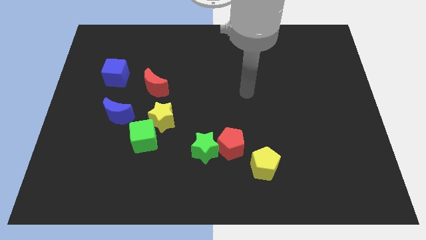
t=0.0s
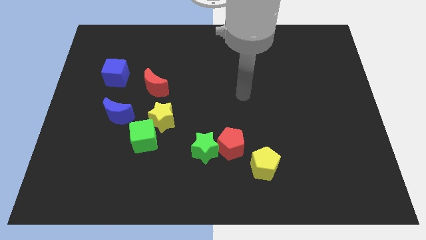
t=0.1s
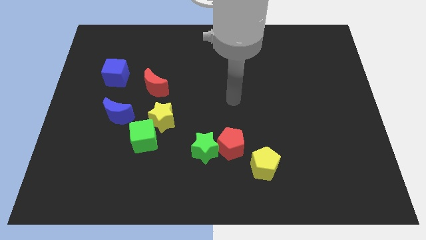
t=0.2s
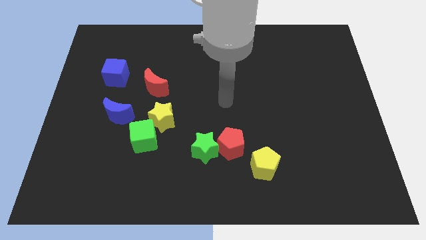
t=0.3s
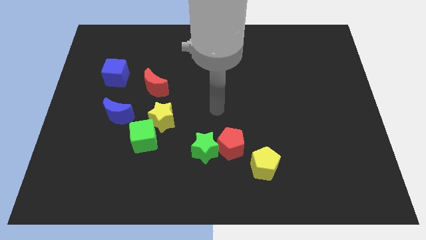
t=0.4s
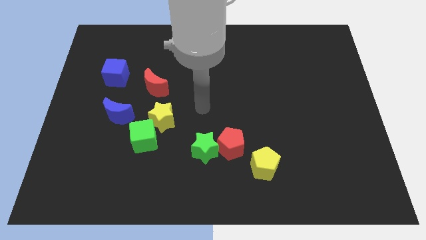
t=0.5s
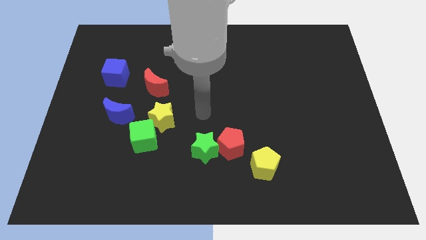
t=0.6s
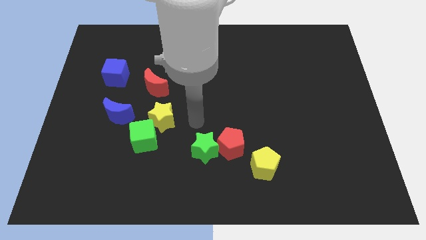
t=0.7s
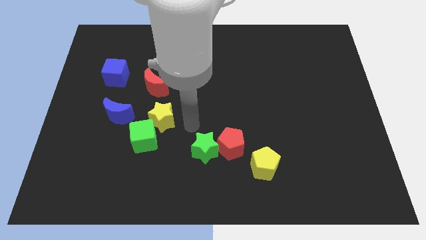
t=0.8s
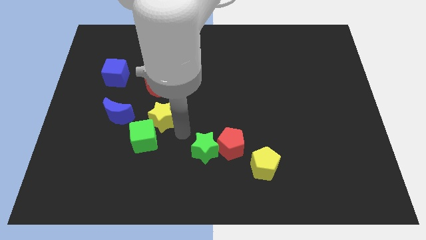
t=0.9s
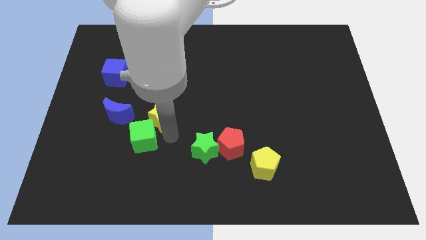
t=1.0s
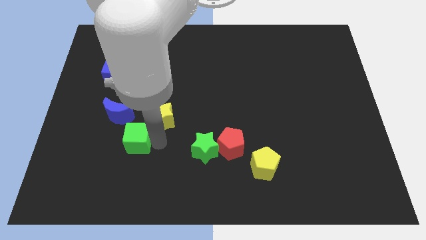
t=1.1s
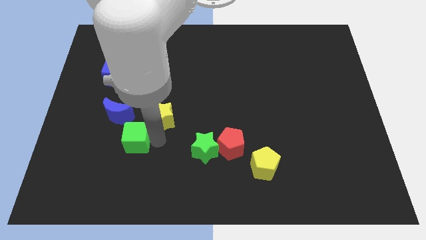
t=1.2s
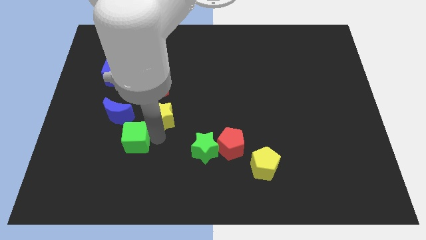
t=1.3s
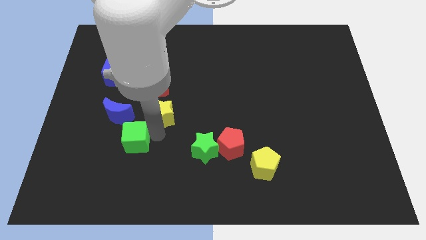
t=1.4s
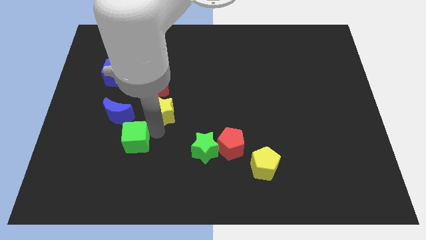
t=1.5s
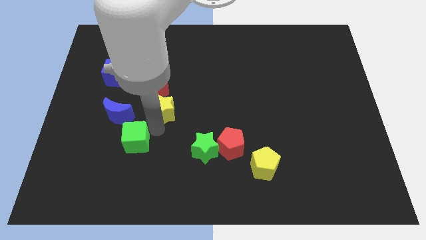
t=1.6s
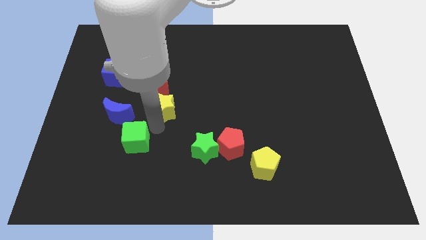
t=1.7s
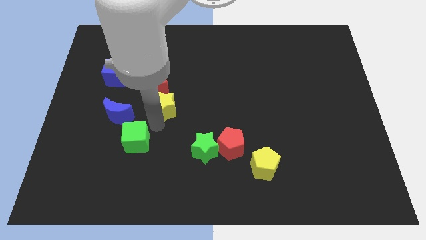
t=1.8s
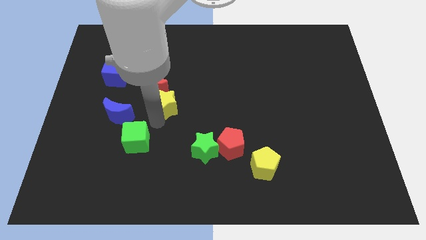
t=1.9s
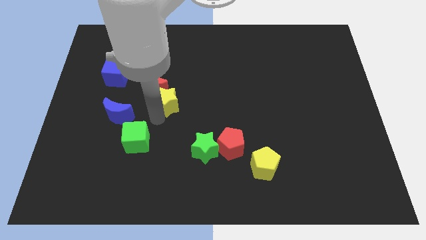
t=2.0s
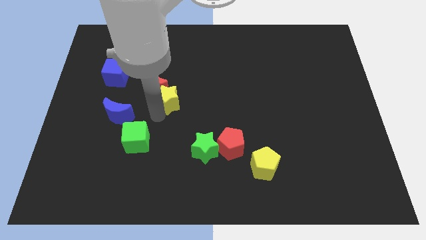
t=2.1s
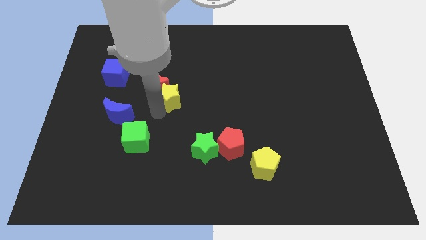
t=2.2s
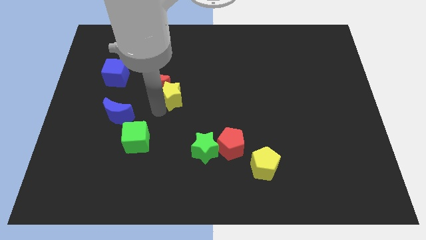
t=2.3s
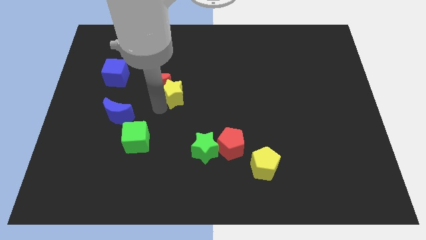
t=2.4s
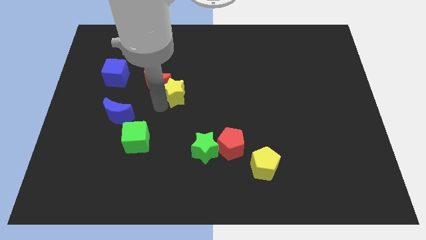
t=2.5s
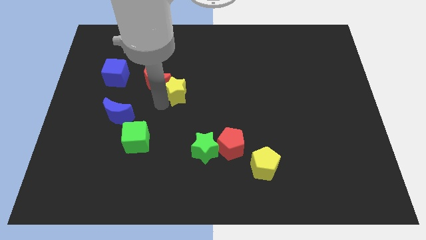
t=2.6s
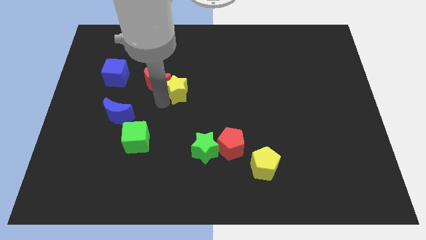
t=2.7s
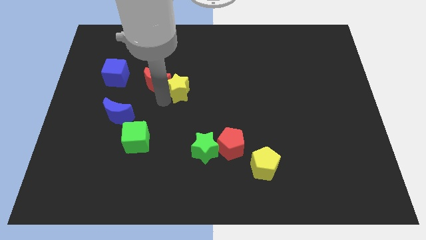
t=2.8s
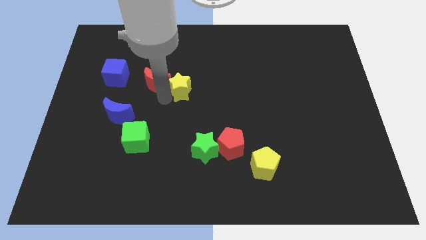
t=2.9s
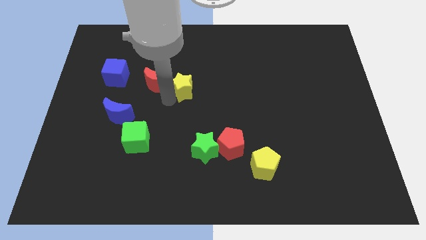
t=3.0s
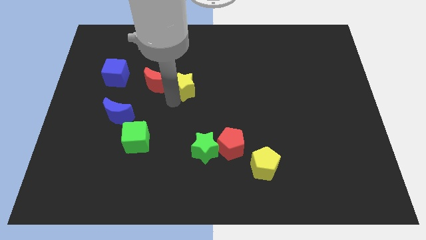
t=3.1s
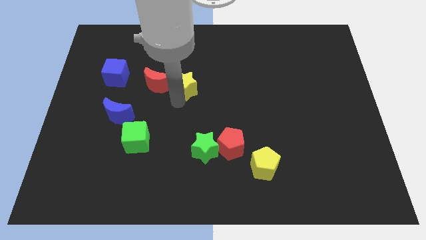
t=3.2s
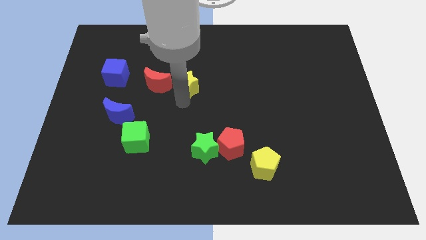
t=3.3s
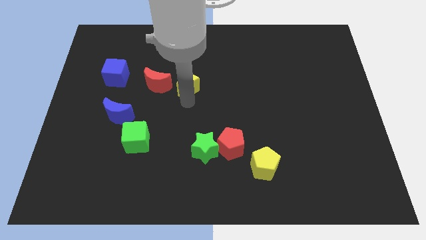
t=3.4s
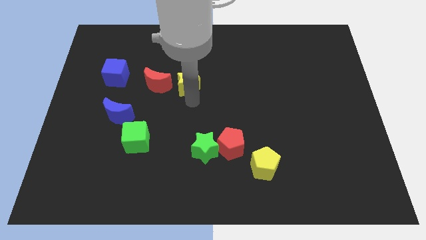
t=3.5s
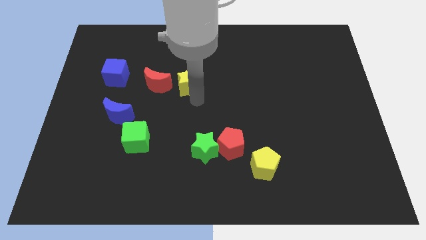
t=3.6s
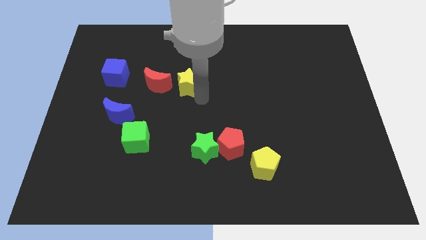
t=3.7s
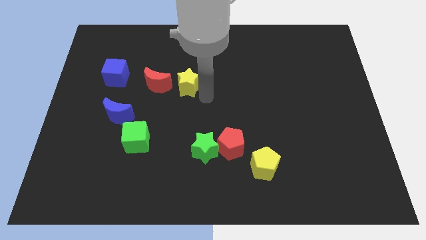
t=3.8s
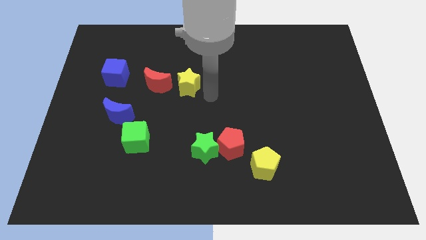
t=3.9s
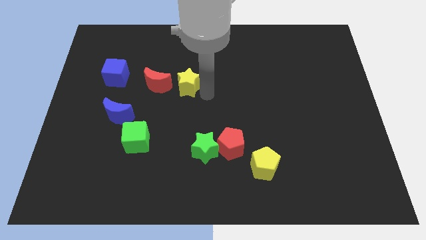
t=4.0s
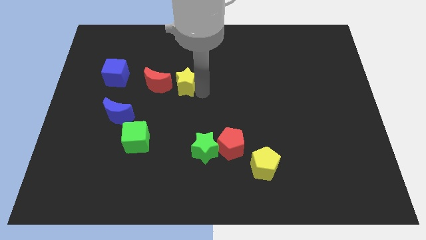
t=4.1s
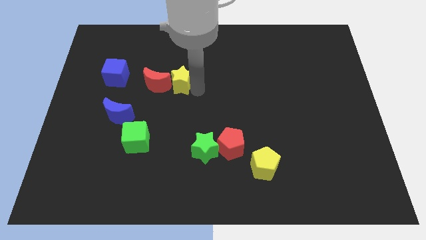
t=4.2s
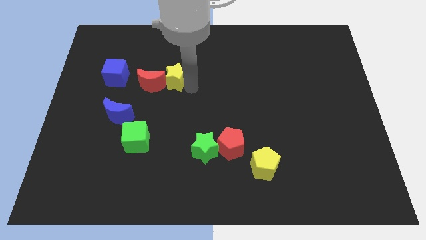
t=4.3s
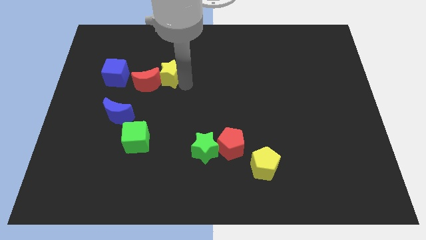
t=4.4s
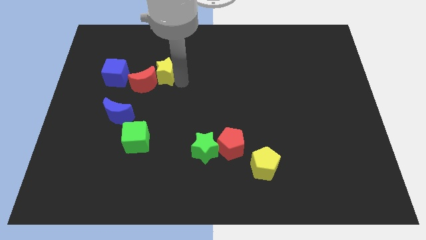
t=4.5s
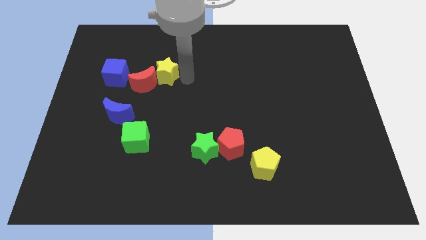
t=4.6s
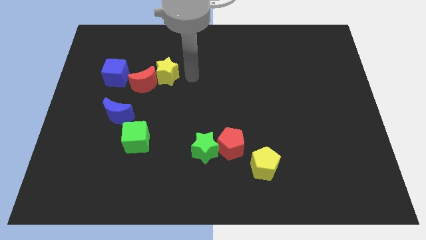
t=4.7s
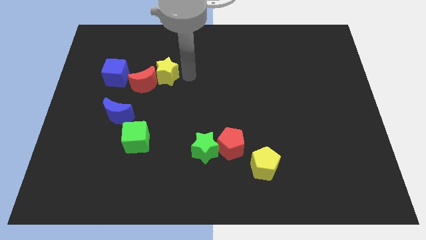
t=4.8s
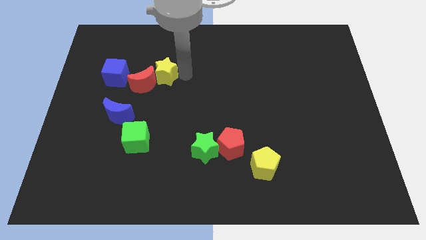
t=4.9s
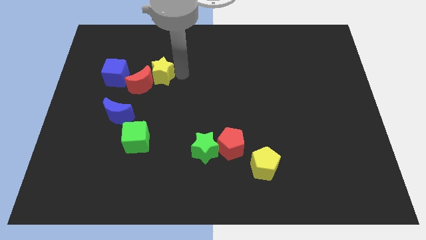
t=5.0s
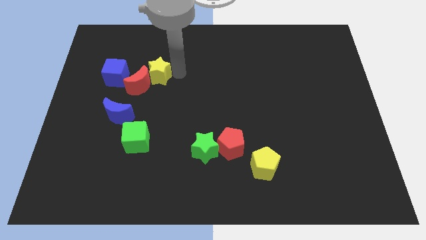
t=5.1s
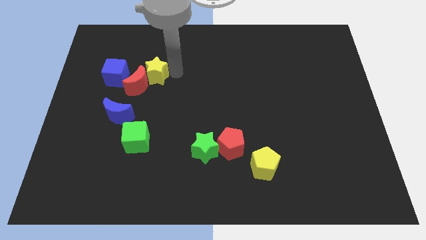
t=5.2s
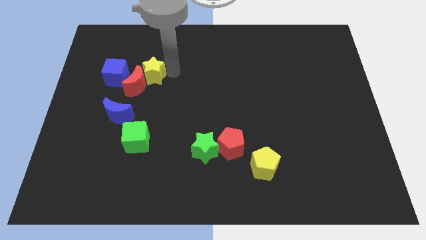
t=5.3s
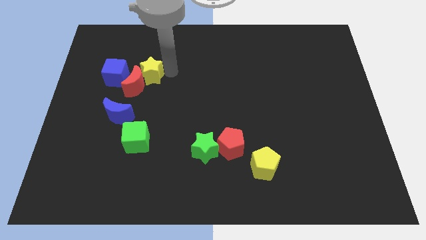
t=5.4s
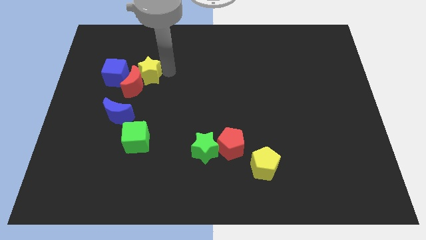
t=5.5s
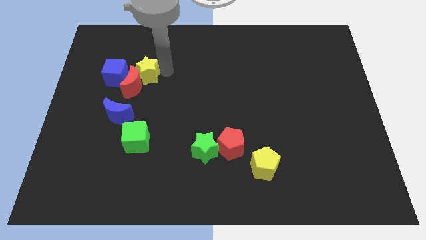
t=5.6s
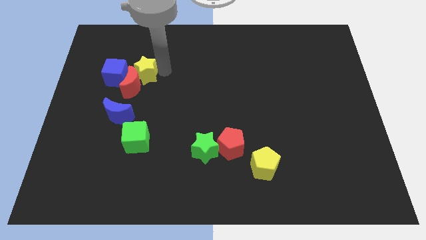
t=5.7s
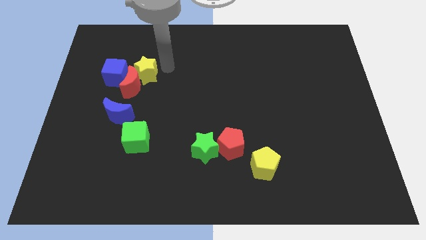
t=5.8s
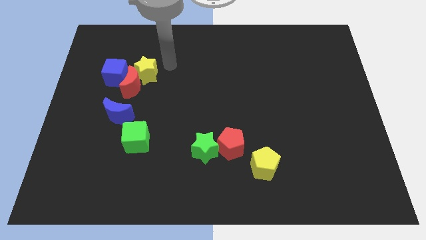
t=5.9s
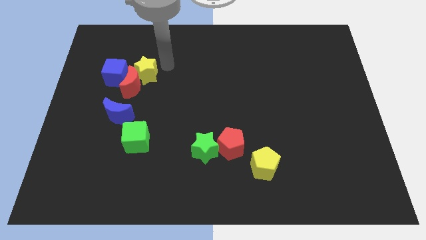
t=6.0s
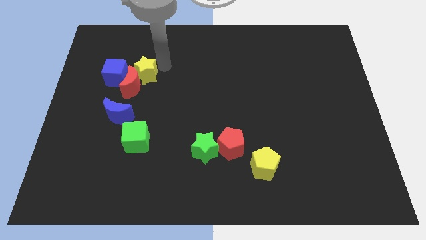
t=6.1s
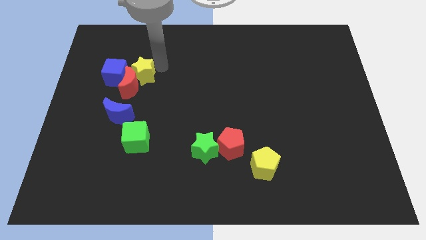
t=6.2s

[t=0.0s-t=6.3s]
put the yellow star above the blue moon

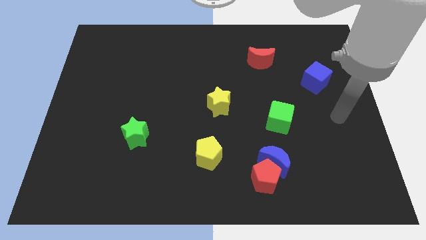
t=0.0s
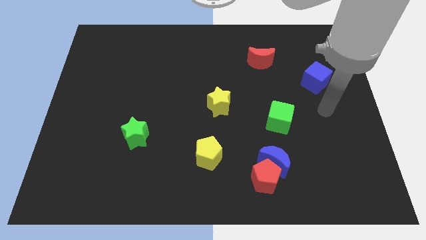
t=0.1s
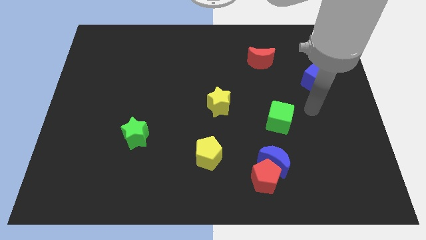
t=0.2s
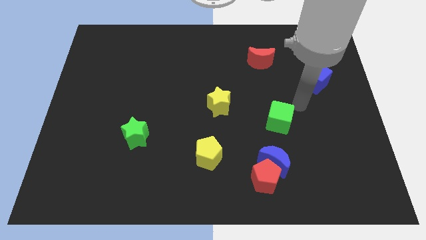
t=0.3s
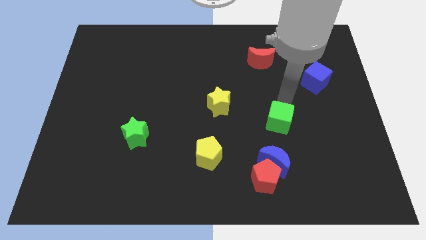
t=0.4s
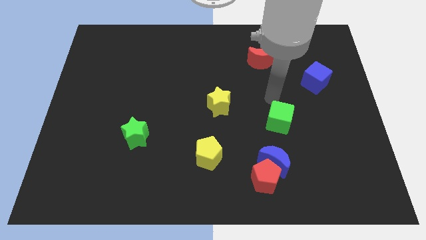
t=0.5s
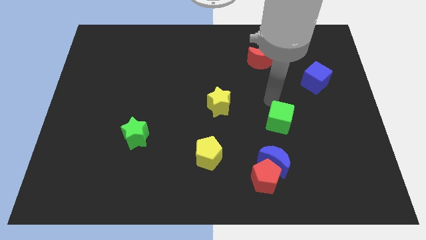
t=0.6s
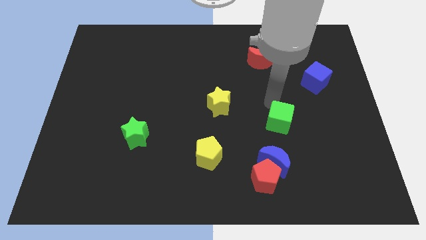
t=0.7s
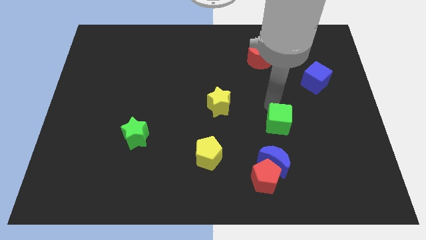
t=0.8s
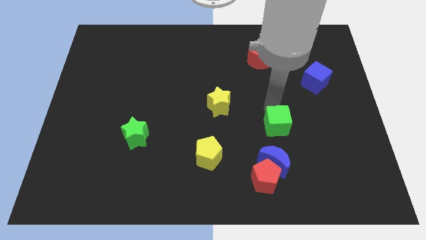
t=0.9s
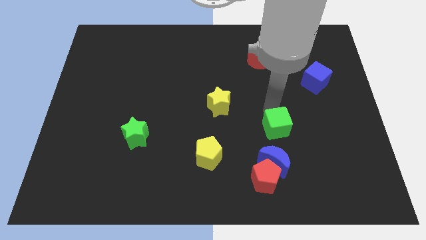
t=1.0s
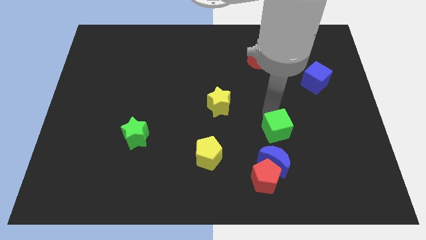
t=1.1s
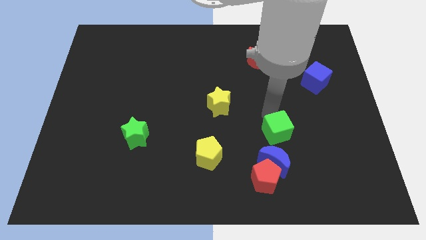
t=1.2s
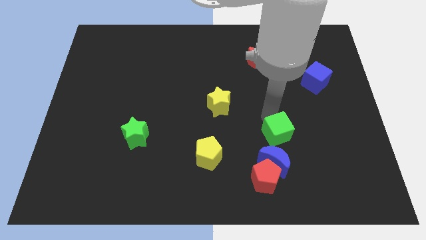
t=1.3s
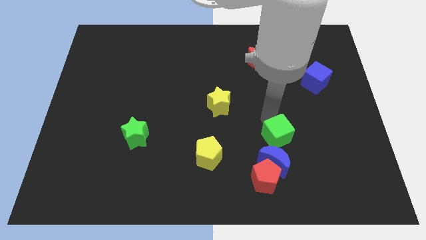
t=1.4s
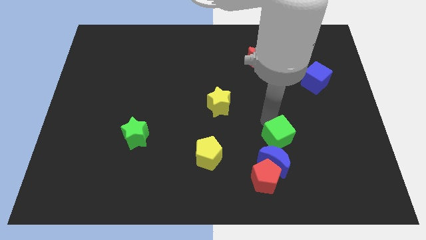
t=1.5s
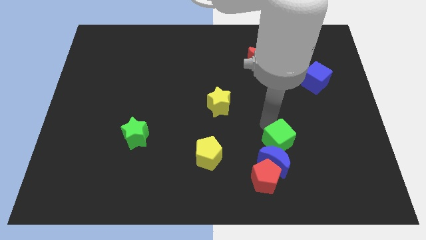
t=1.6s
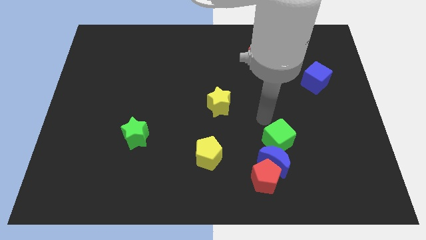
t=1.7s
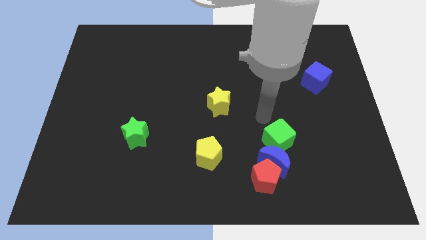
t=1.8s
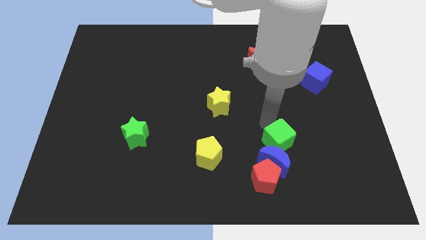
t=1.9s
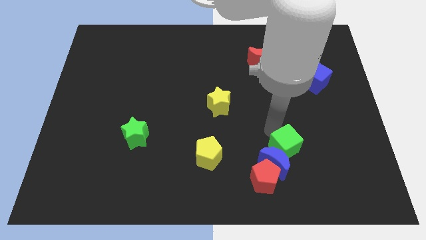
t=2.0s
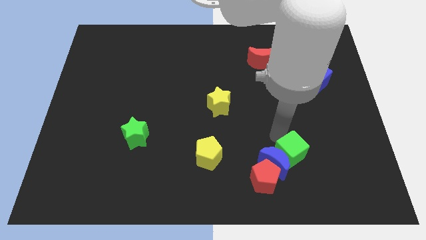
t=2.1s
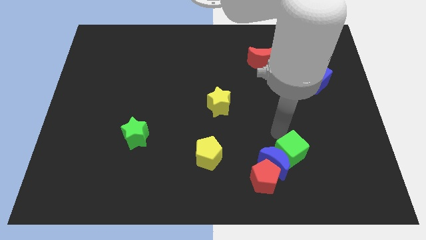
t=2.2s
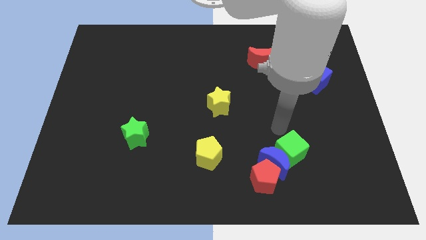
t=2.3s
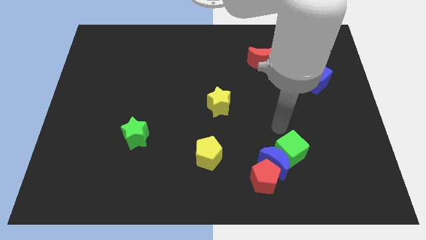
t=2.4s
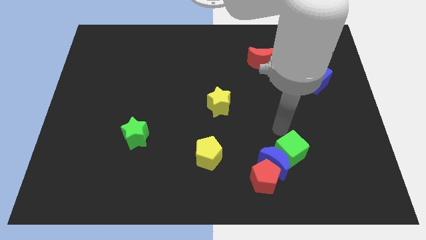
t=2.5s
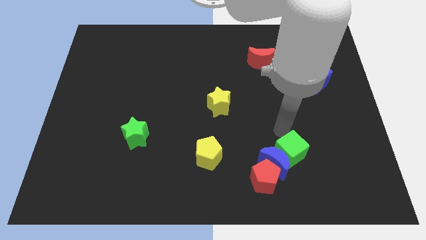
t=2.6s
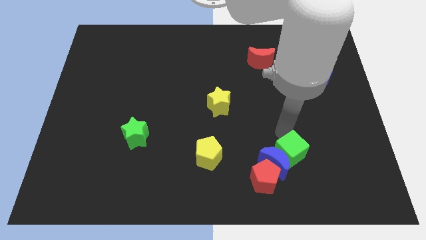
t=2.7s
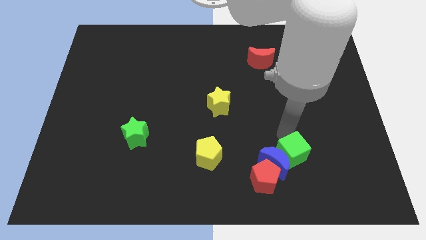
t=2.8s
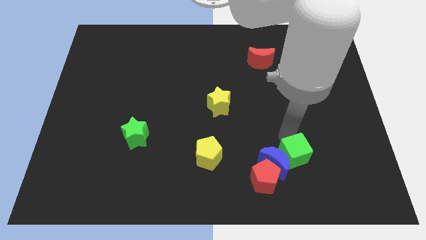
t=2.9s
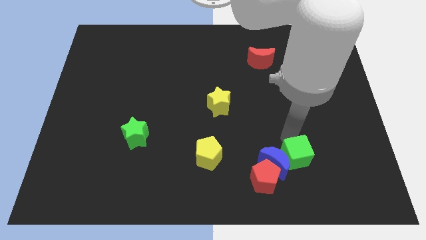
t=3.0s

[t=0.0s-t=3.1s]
push the green cube to the bottom right side of the blue moon
